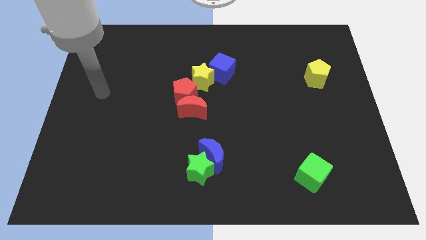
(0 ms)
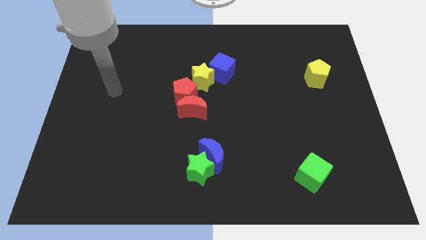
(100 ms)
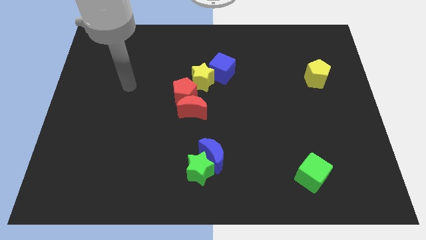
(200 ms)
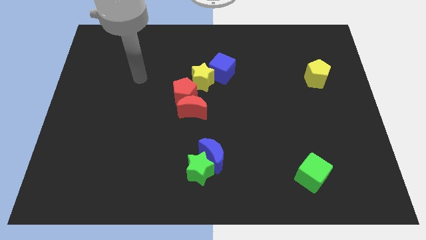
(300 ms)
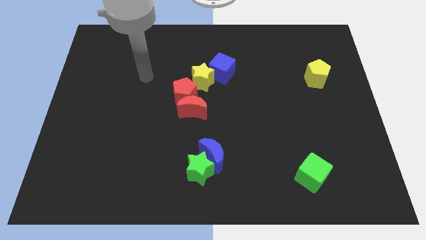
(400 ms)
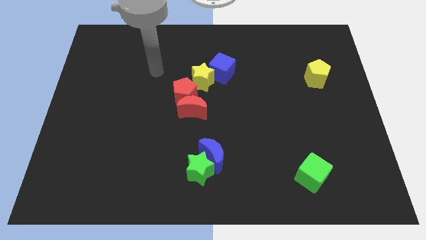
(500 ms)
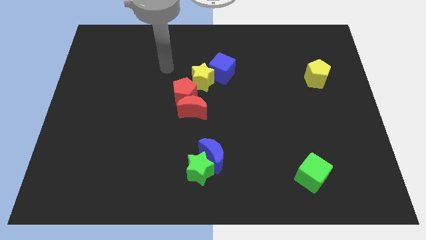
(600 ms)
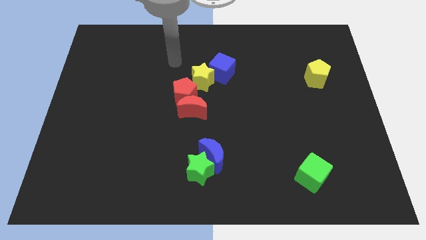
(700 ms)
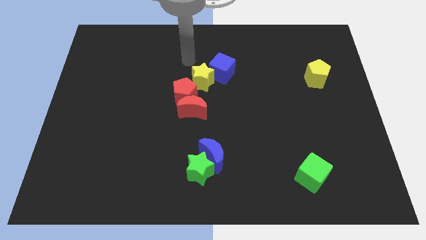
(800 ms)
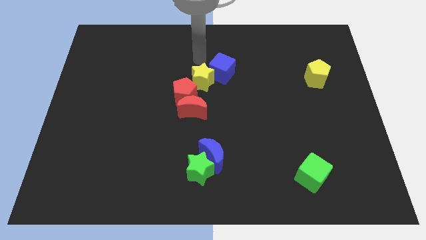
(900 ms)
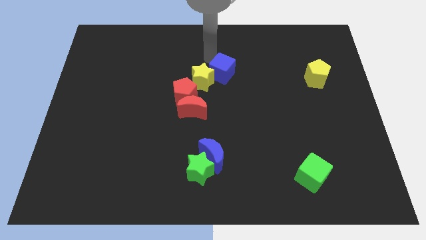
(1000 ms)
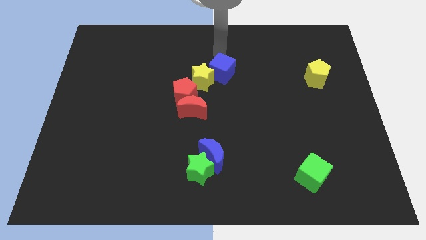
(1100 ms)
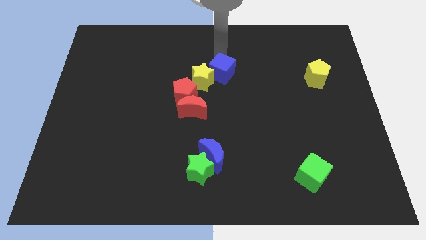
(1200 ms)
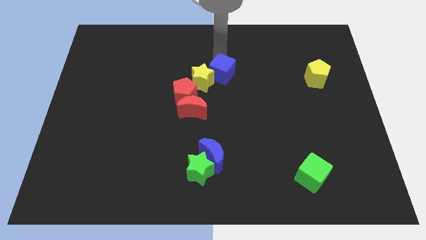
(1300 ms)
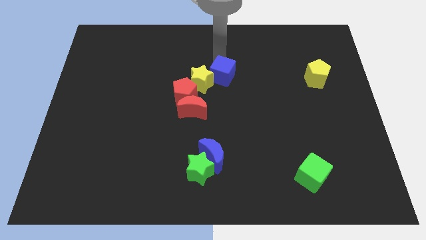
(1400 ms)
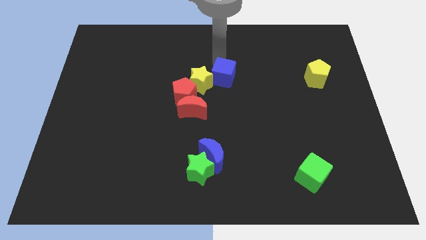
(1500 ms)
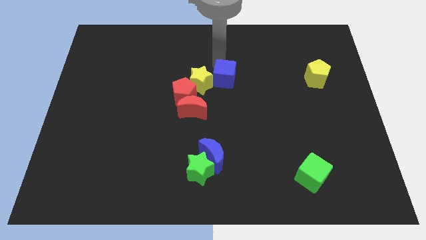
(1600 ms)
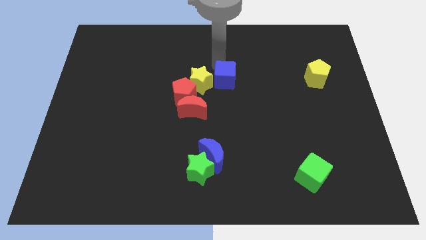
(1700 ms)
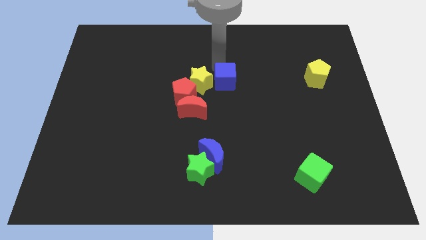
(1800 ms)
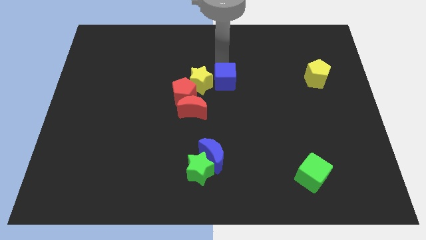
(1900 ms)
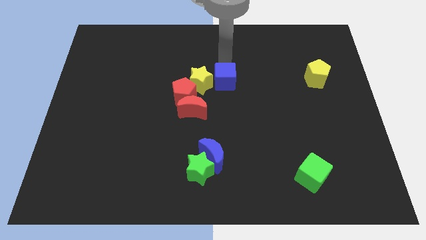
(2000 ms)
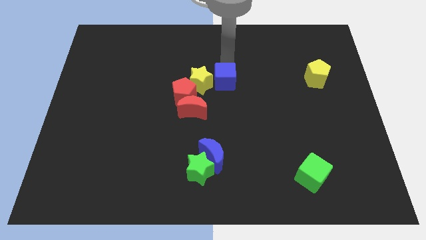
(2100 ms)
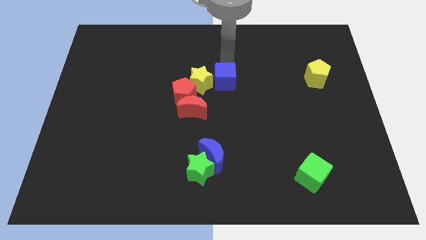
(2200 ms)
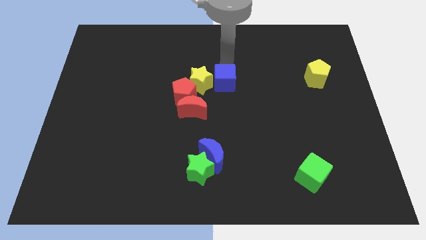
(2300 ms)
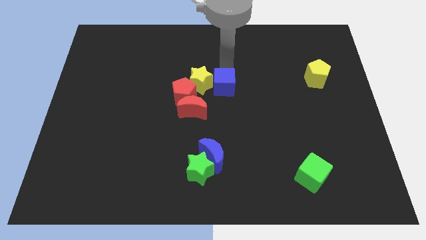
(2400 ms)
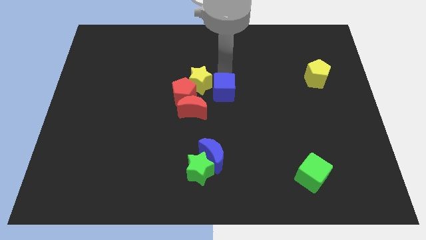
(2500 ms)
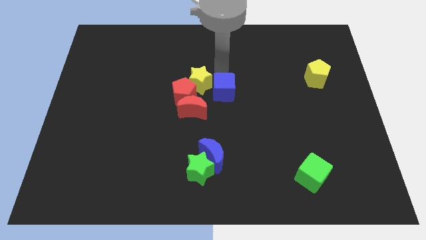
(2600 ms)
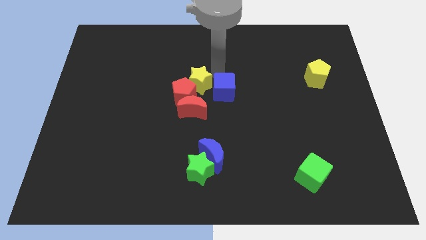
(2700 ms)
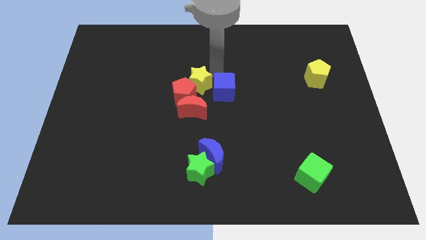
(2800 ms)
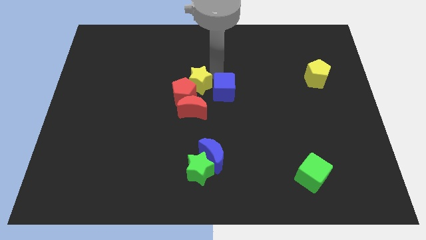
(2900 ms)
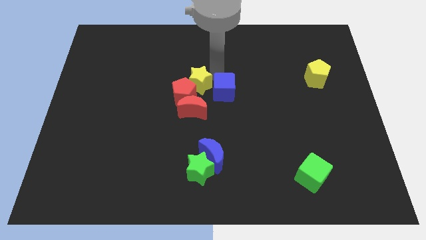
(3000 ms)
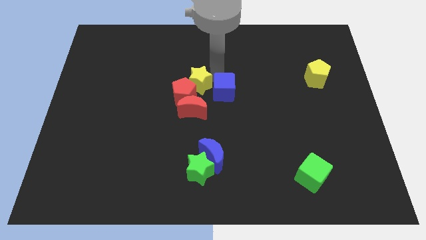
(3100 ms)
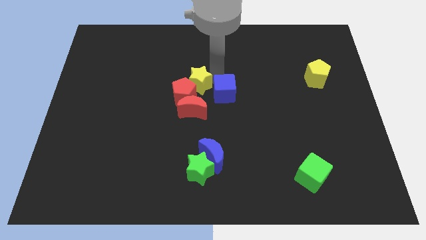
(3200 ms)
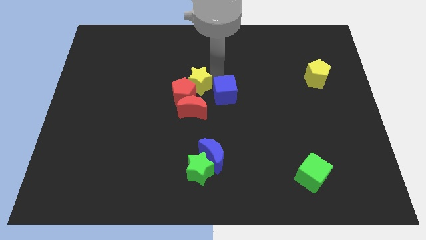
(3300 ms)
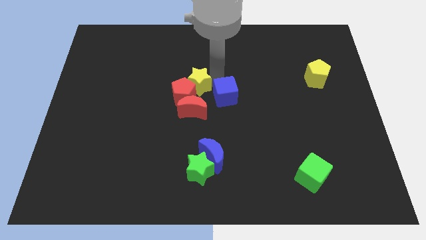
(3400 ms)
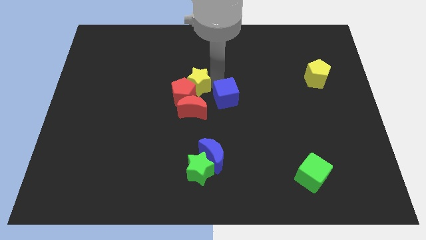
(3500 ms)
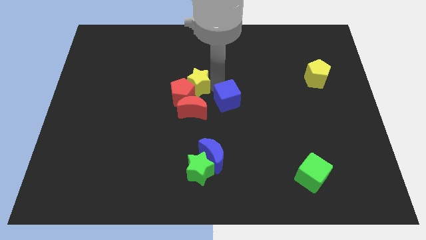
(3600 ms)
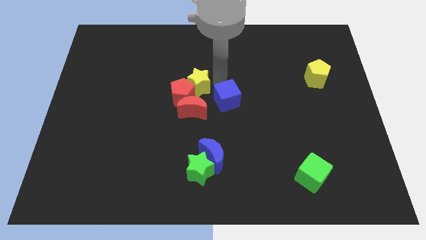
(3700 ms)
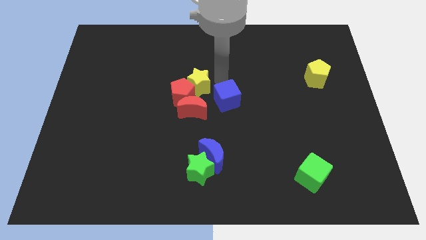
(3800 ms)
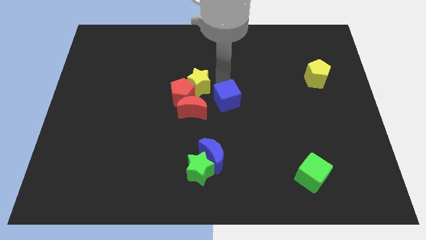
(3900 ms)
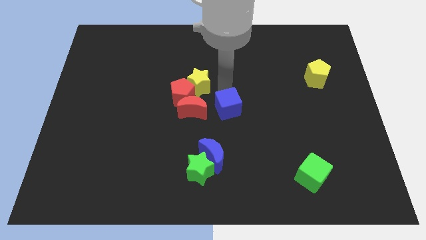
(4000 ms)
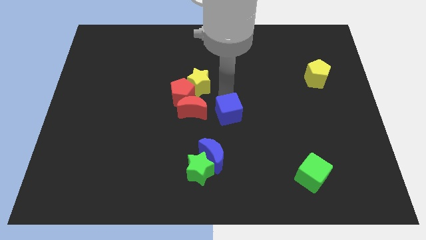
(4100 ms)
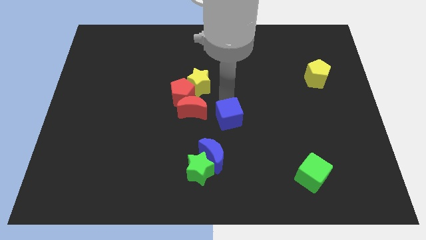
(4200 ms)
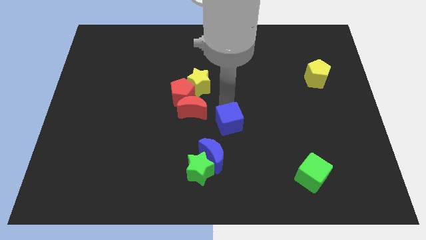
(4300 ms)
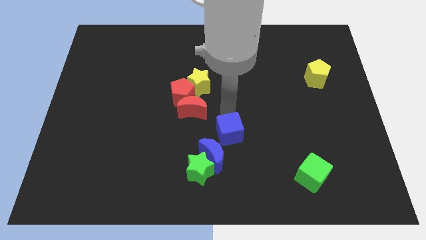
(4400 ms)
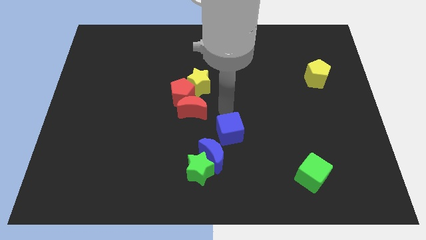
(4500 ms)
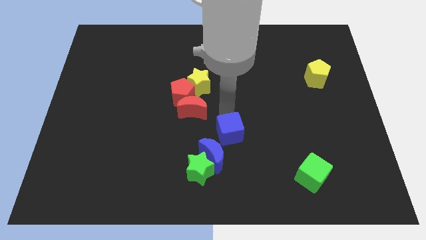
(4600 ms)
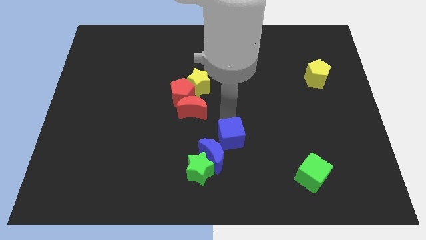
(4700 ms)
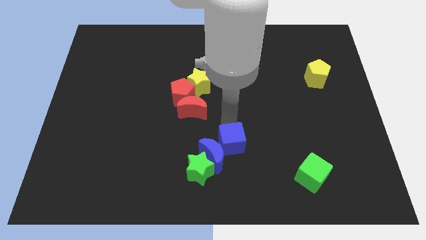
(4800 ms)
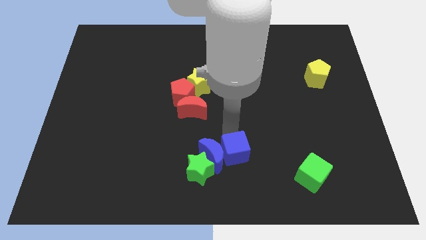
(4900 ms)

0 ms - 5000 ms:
move the blue cube diagonally down and to the right of the blue moon

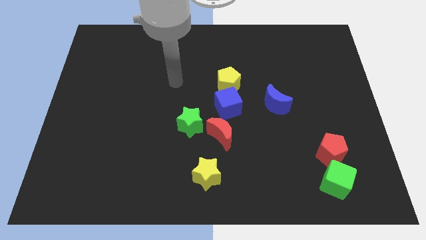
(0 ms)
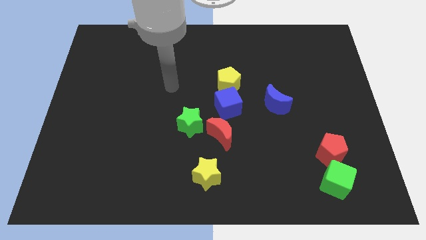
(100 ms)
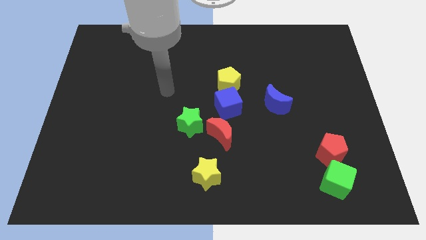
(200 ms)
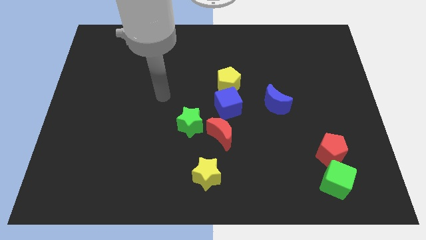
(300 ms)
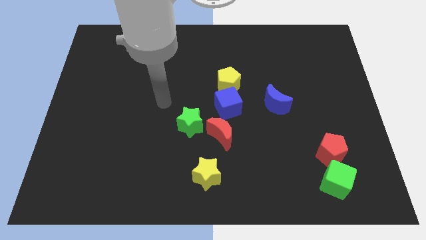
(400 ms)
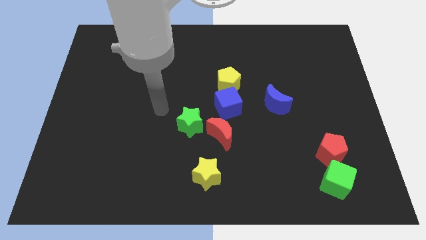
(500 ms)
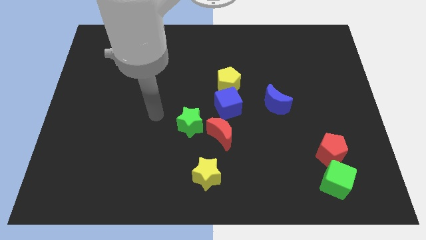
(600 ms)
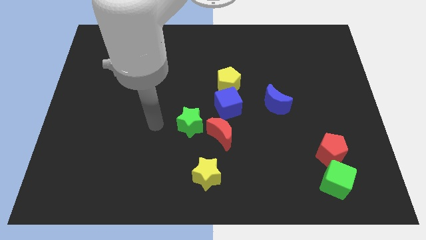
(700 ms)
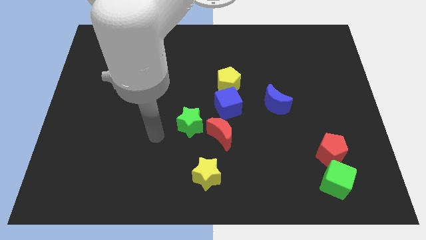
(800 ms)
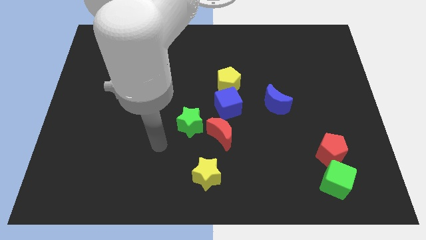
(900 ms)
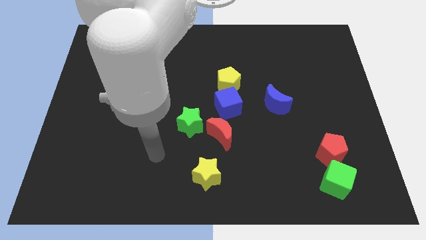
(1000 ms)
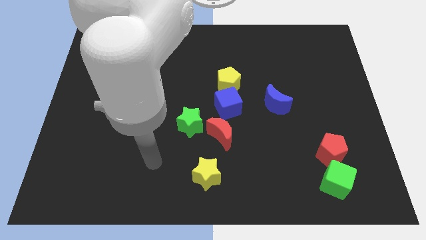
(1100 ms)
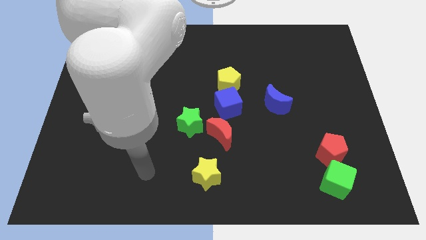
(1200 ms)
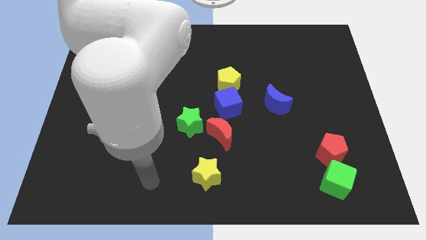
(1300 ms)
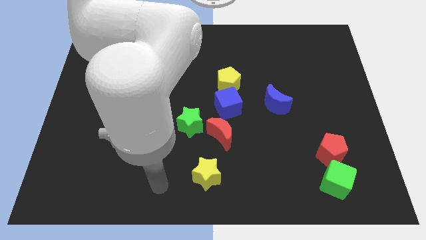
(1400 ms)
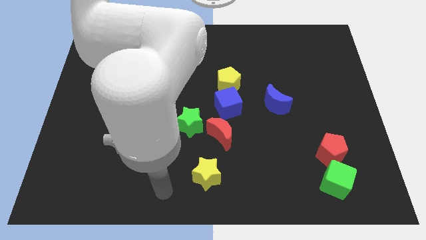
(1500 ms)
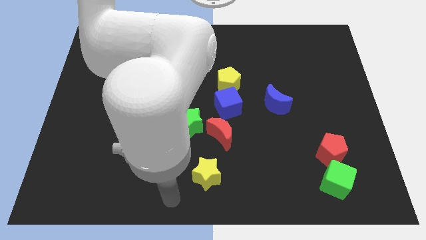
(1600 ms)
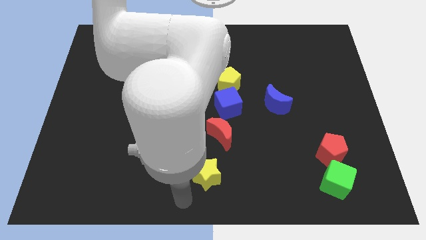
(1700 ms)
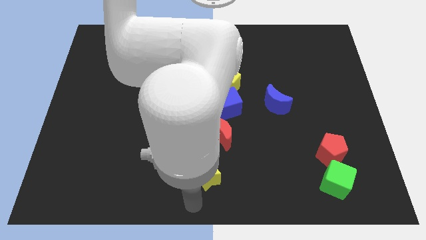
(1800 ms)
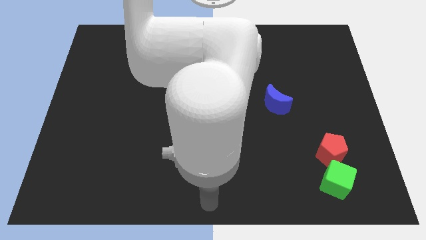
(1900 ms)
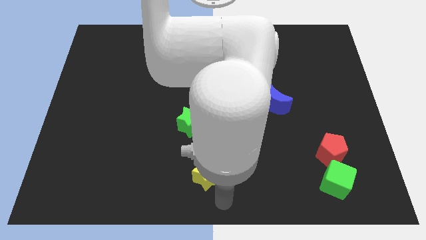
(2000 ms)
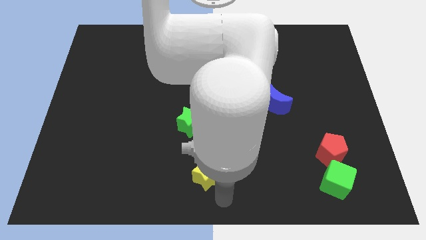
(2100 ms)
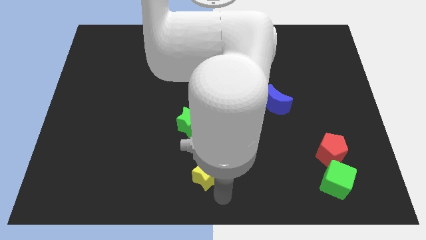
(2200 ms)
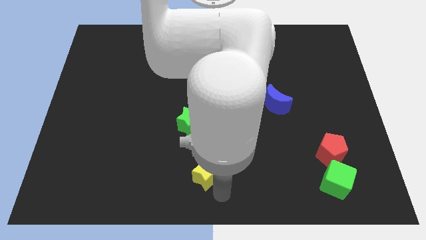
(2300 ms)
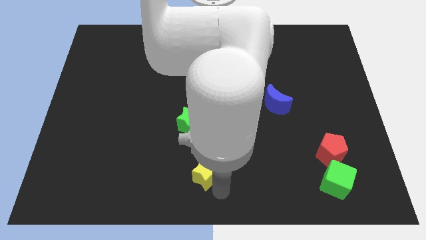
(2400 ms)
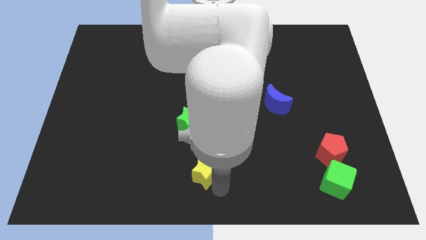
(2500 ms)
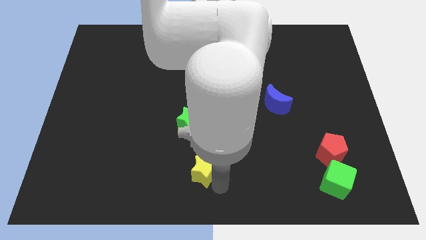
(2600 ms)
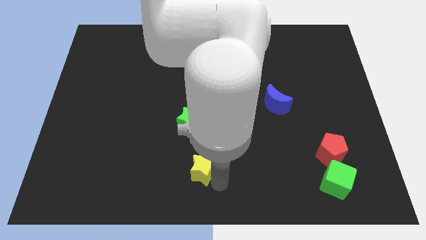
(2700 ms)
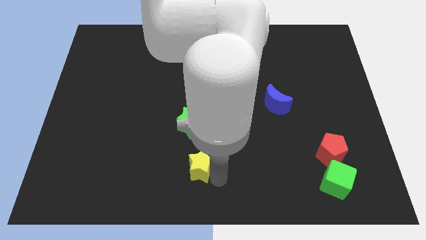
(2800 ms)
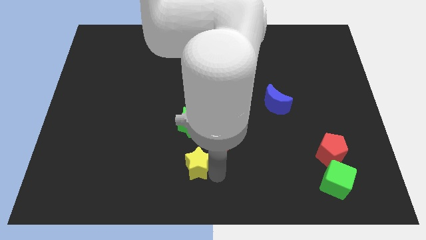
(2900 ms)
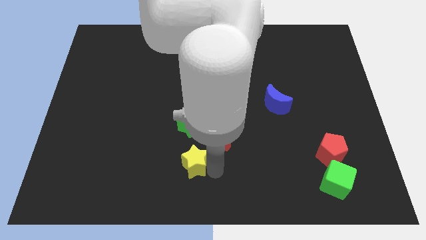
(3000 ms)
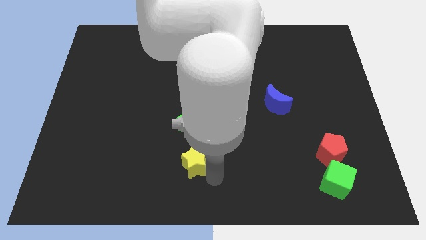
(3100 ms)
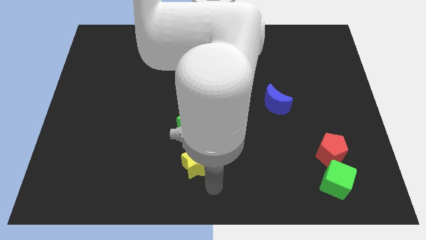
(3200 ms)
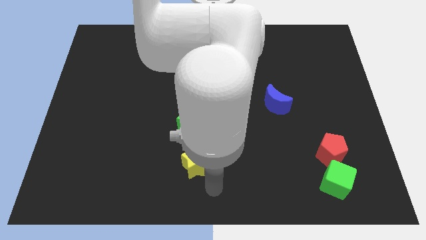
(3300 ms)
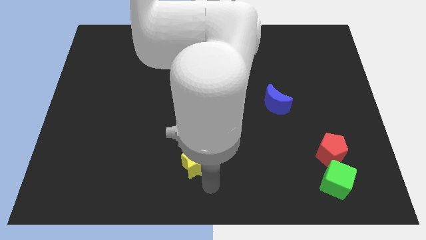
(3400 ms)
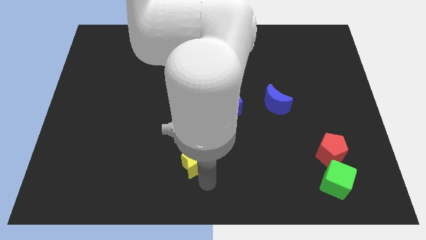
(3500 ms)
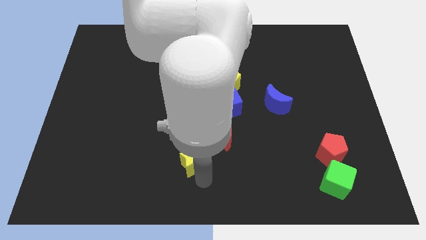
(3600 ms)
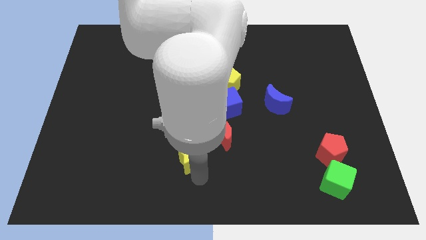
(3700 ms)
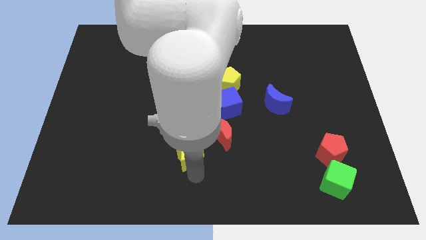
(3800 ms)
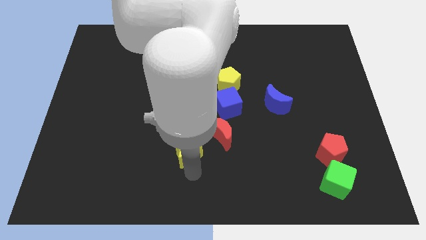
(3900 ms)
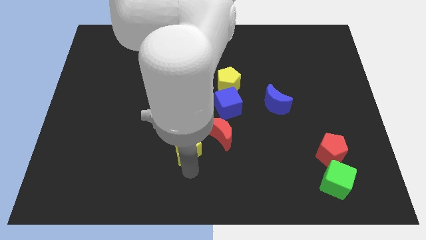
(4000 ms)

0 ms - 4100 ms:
put the yellow star just left of the red moon
